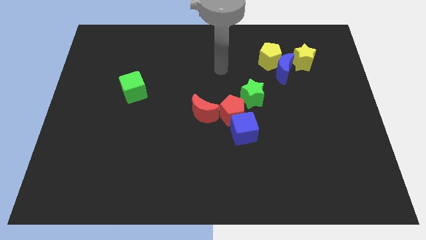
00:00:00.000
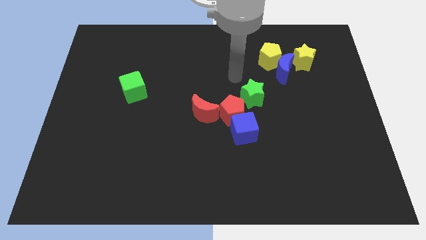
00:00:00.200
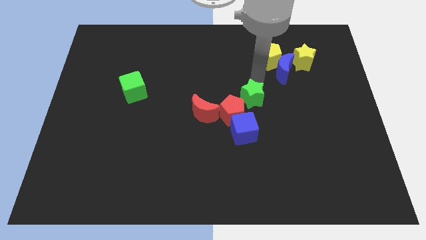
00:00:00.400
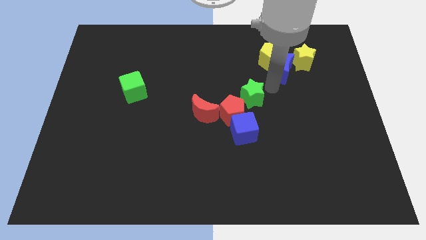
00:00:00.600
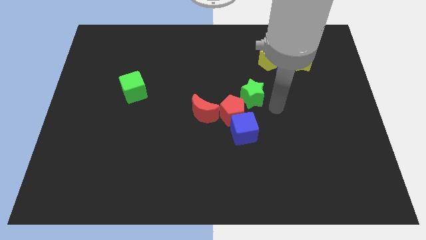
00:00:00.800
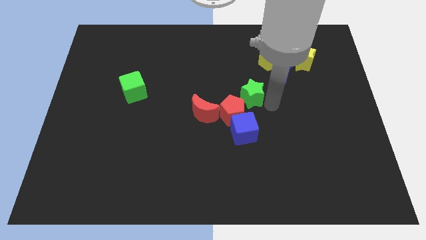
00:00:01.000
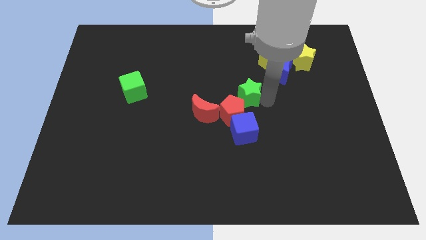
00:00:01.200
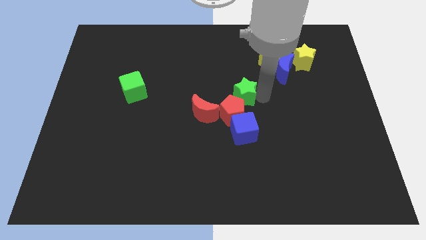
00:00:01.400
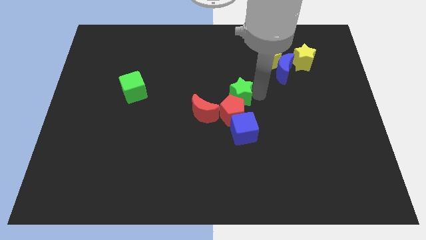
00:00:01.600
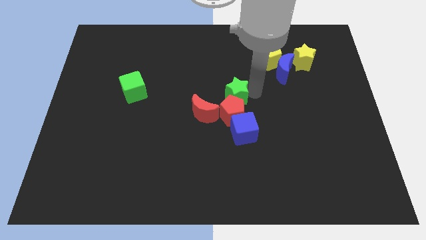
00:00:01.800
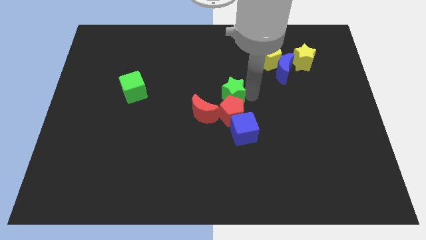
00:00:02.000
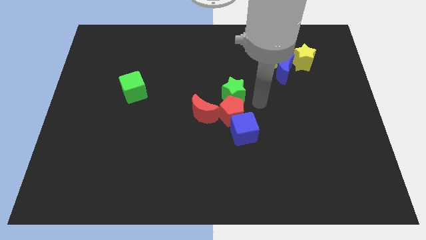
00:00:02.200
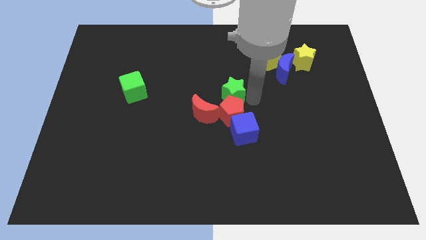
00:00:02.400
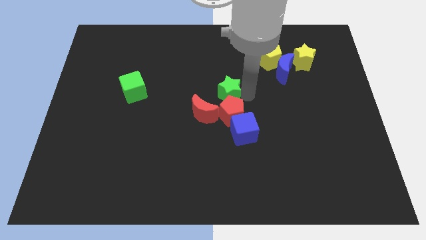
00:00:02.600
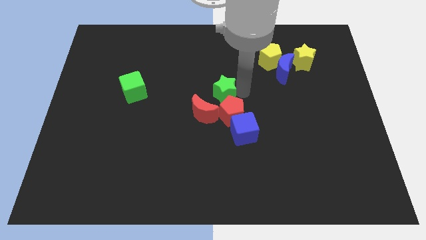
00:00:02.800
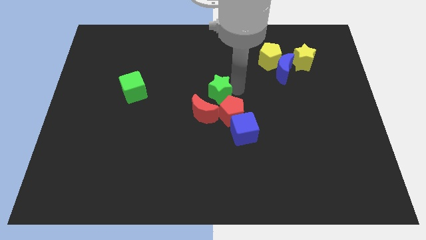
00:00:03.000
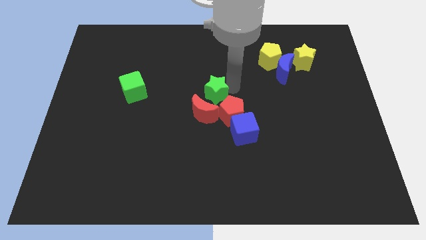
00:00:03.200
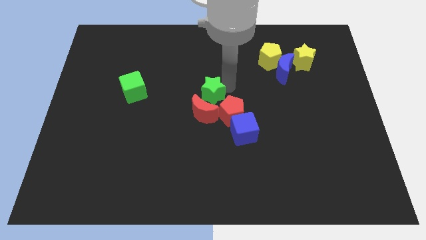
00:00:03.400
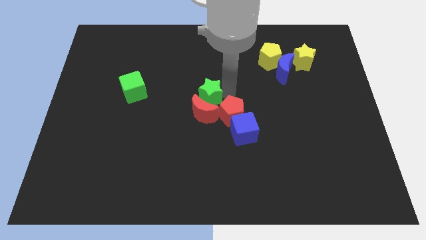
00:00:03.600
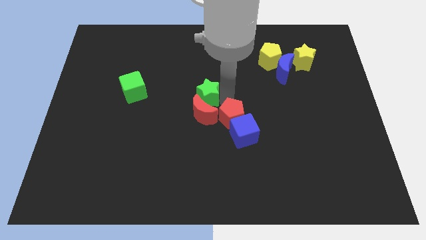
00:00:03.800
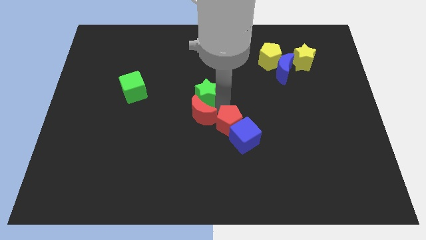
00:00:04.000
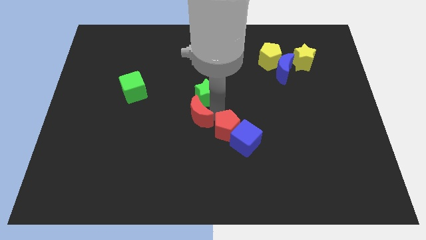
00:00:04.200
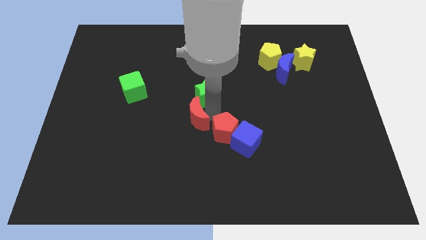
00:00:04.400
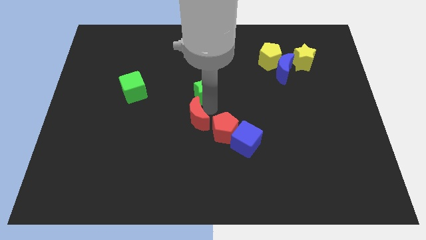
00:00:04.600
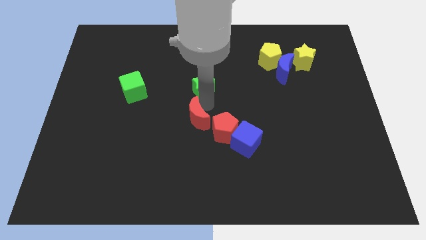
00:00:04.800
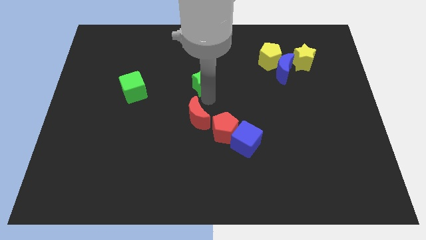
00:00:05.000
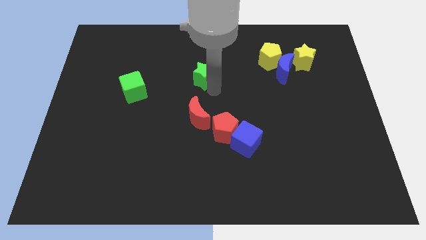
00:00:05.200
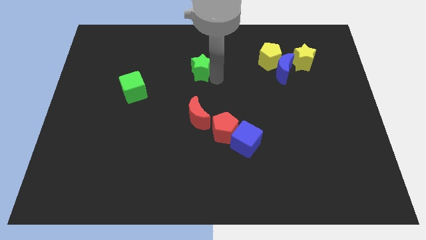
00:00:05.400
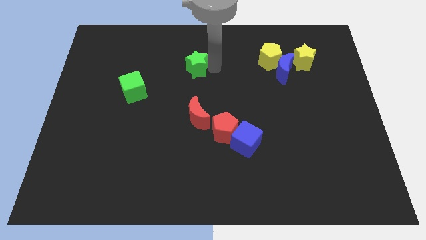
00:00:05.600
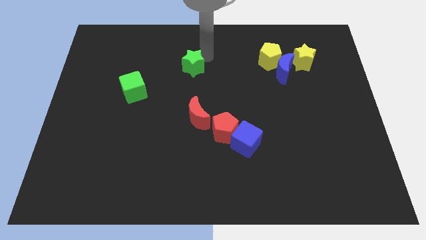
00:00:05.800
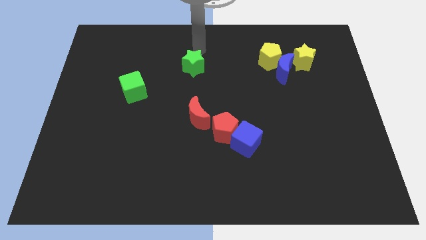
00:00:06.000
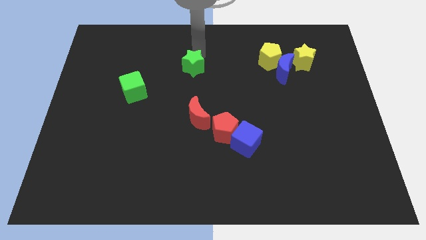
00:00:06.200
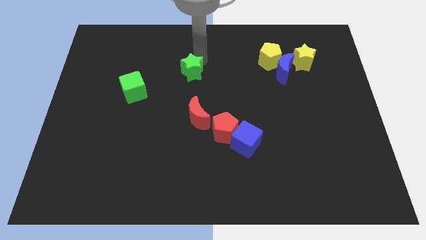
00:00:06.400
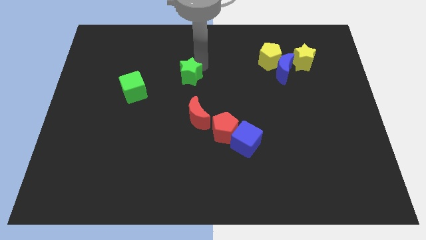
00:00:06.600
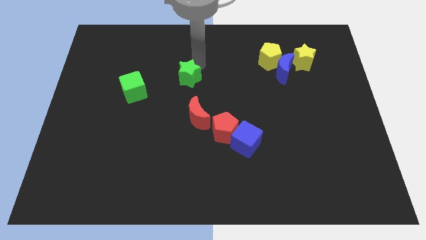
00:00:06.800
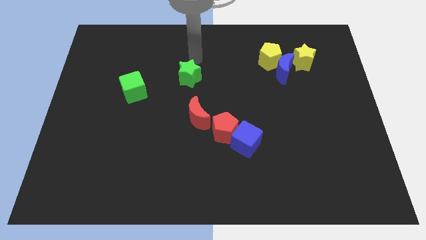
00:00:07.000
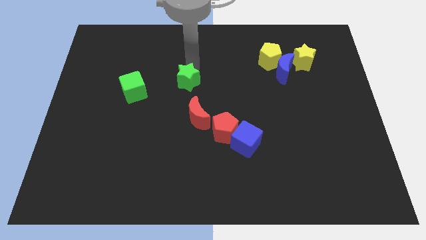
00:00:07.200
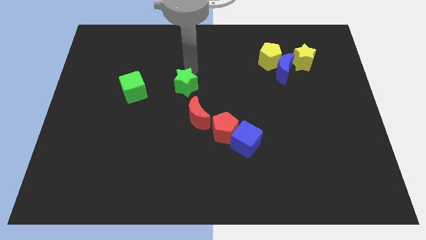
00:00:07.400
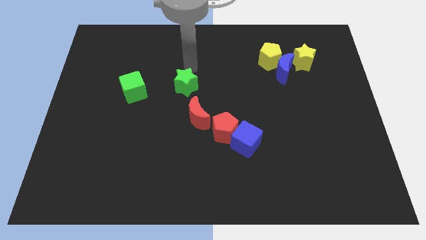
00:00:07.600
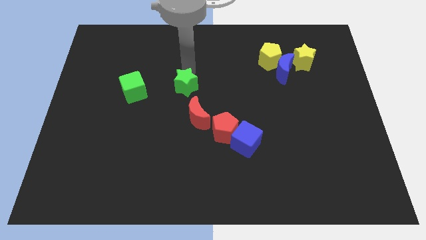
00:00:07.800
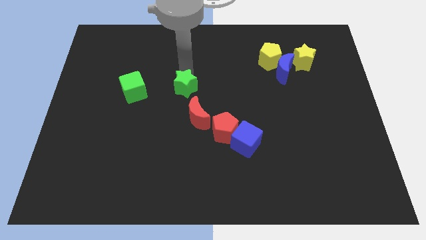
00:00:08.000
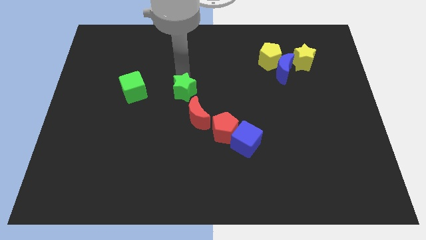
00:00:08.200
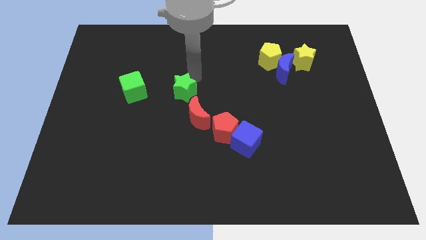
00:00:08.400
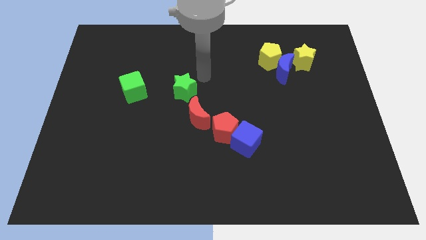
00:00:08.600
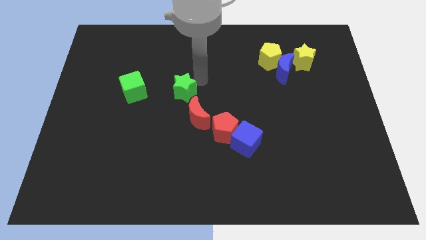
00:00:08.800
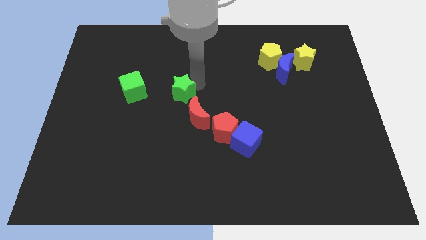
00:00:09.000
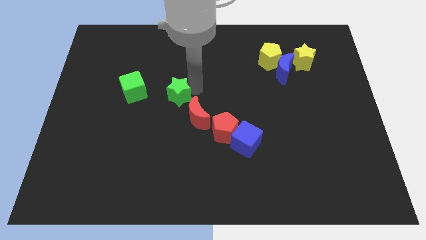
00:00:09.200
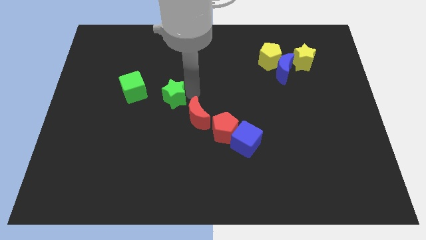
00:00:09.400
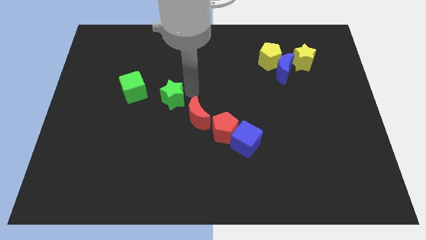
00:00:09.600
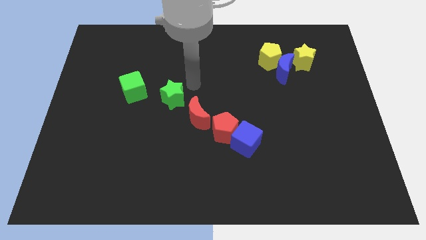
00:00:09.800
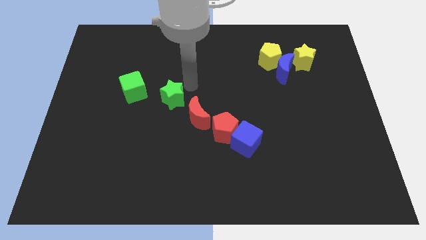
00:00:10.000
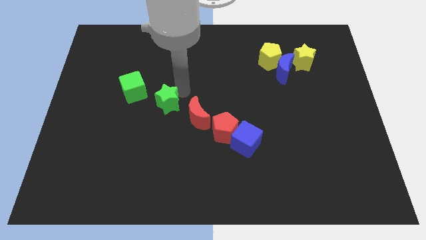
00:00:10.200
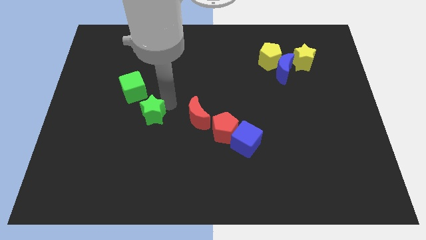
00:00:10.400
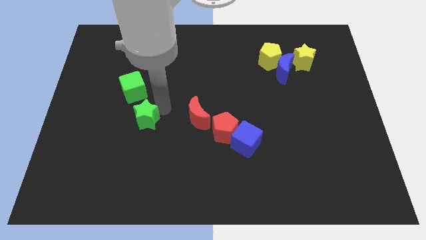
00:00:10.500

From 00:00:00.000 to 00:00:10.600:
put the green star to the bottom side of the green cube
